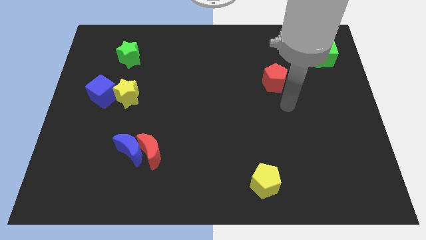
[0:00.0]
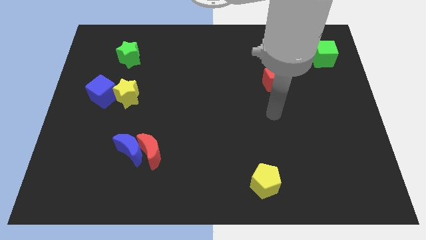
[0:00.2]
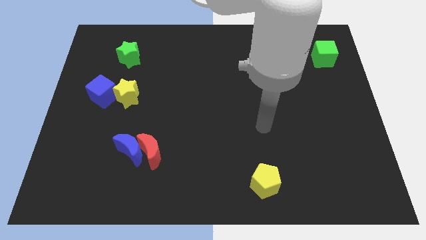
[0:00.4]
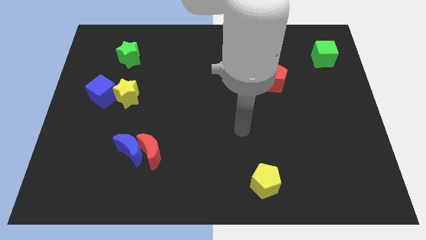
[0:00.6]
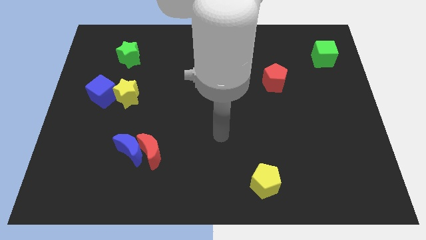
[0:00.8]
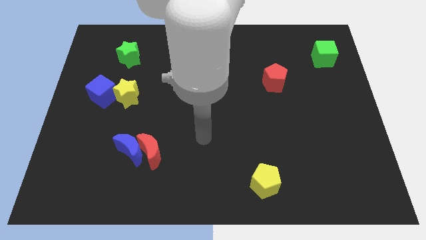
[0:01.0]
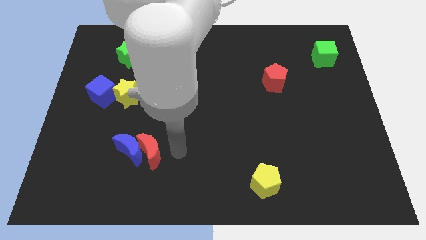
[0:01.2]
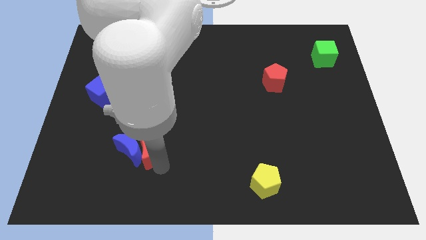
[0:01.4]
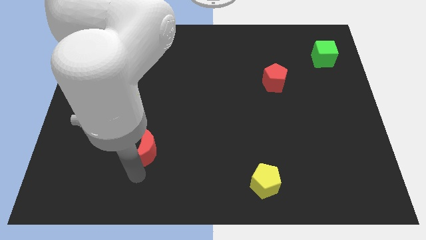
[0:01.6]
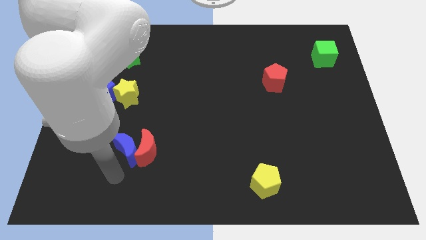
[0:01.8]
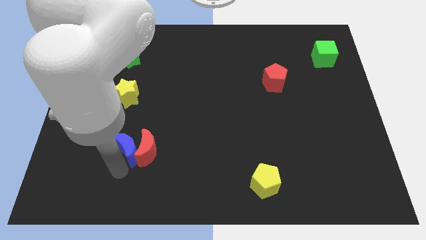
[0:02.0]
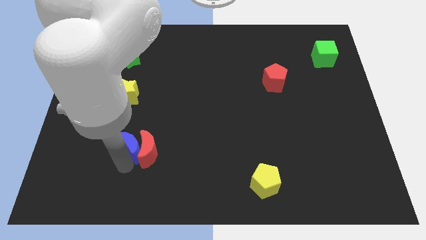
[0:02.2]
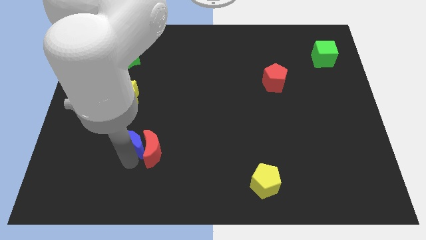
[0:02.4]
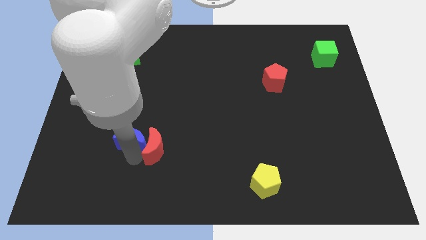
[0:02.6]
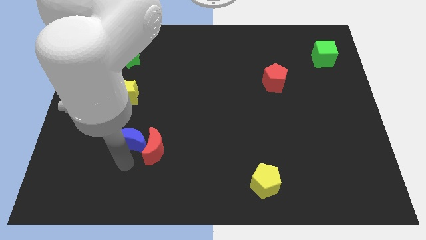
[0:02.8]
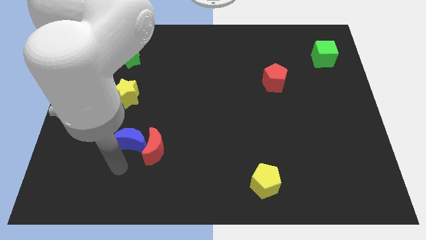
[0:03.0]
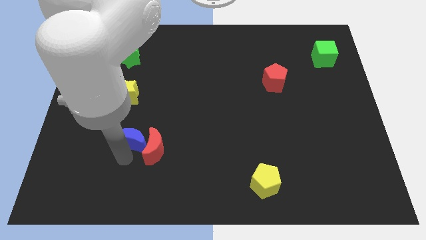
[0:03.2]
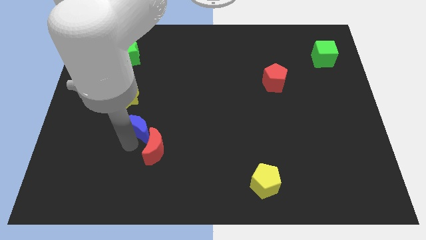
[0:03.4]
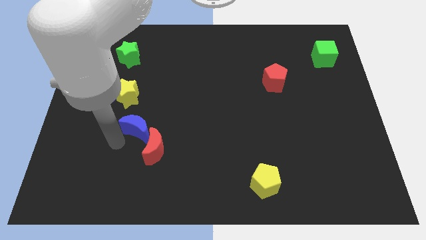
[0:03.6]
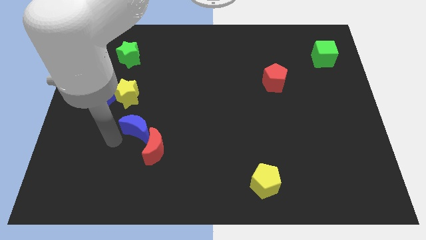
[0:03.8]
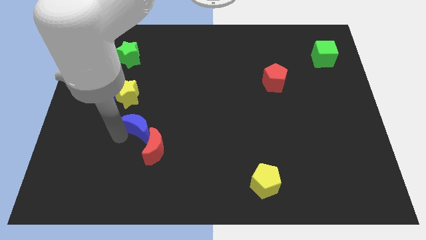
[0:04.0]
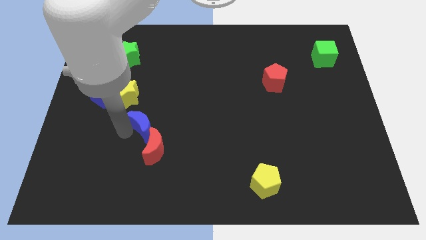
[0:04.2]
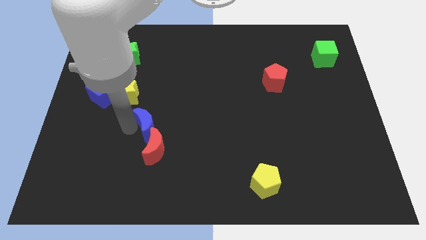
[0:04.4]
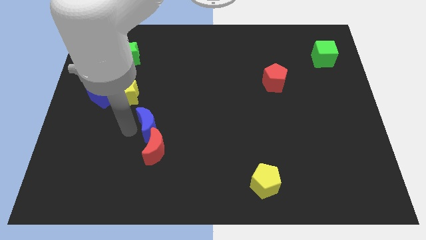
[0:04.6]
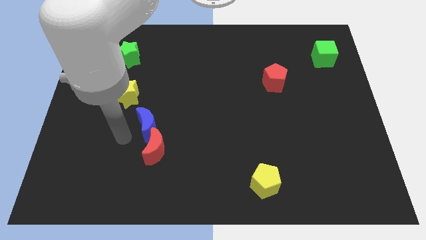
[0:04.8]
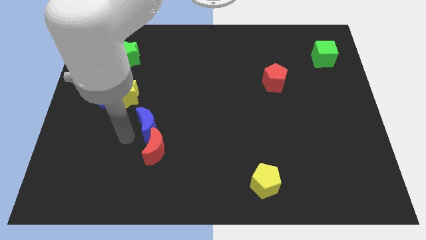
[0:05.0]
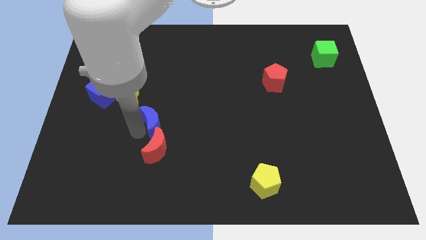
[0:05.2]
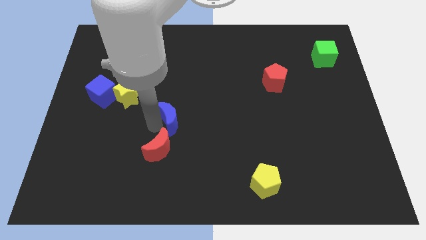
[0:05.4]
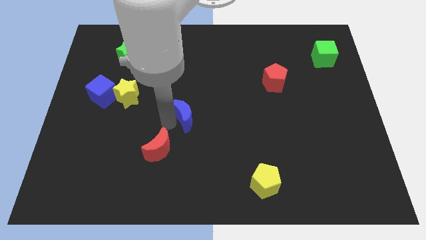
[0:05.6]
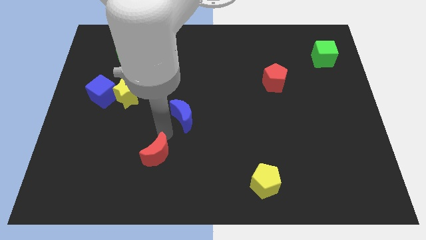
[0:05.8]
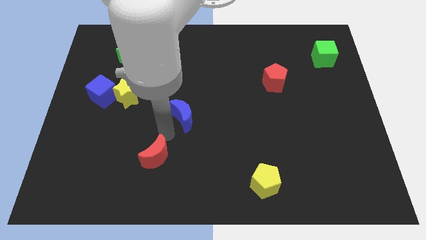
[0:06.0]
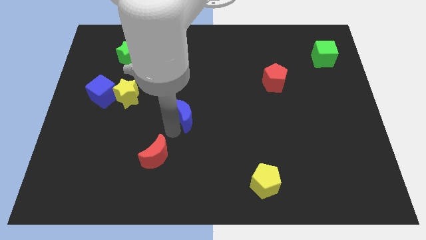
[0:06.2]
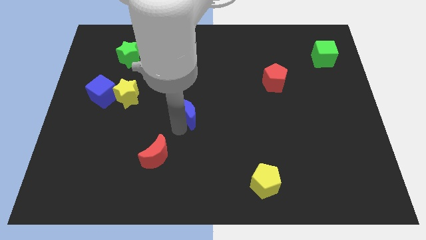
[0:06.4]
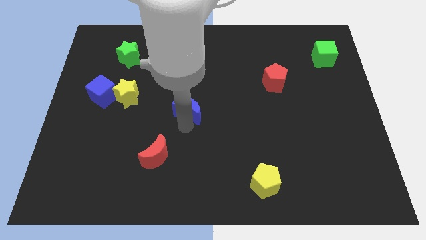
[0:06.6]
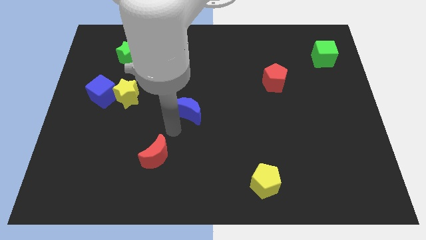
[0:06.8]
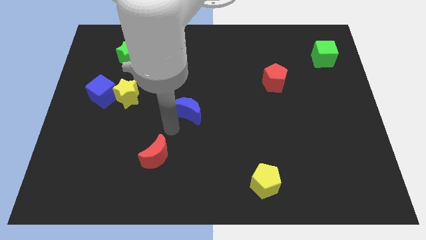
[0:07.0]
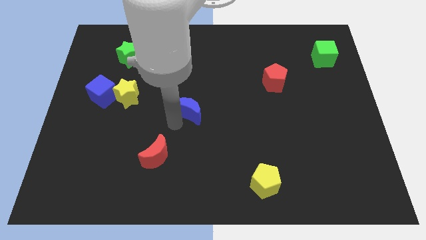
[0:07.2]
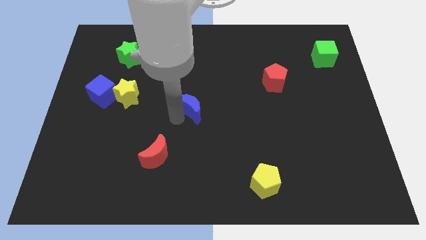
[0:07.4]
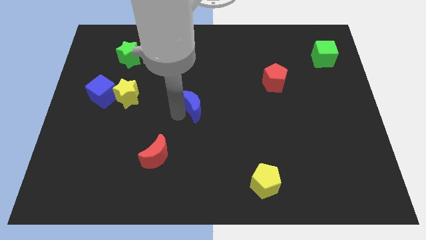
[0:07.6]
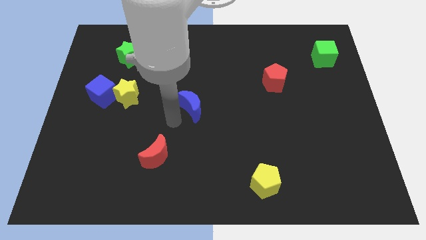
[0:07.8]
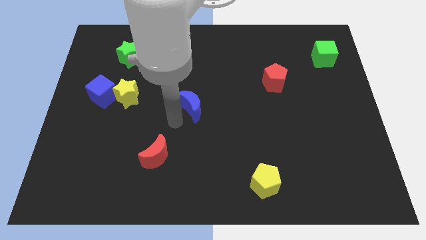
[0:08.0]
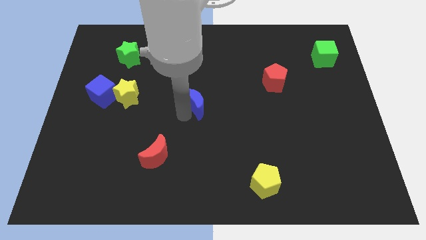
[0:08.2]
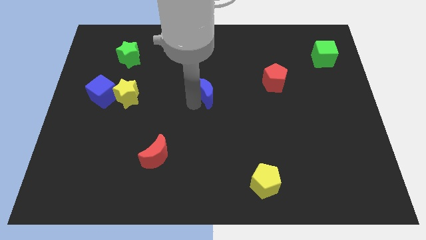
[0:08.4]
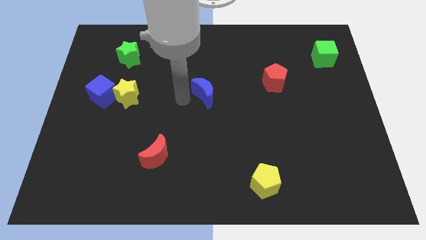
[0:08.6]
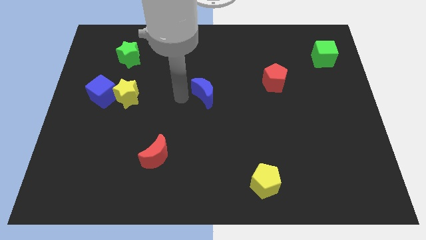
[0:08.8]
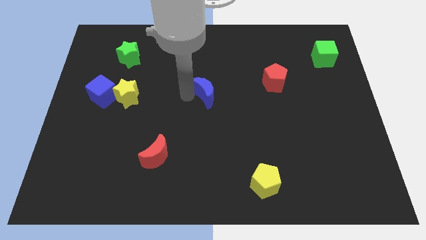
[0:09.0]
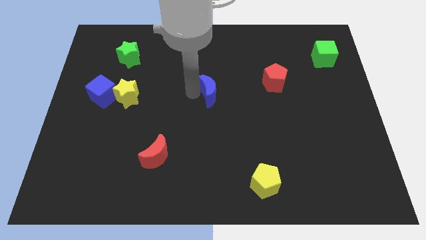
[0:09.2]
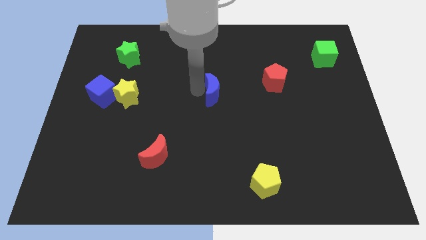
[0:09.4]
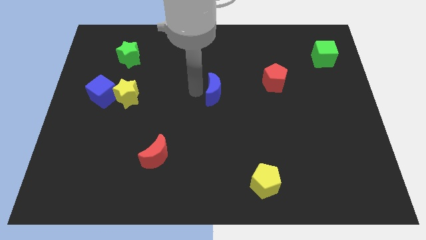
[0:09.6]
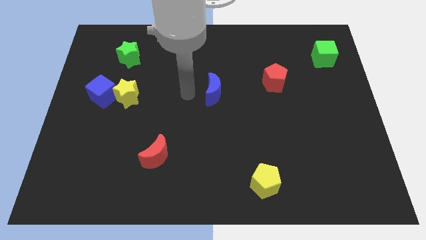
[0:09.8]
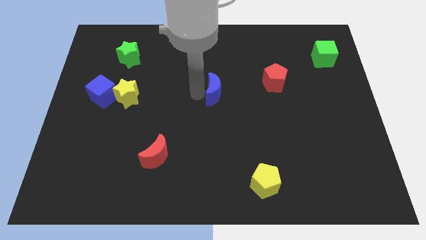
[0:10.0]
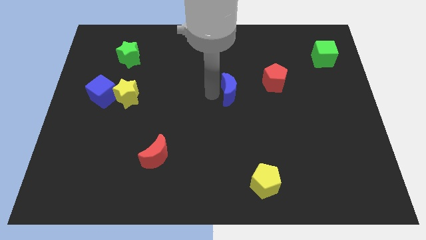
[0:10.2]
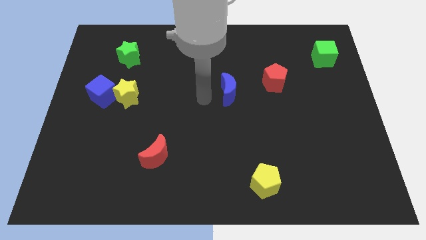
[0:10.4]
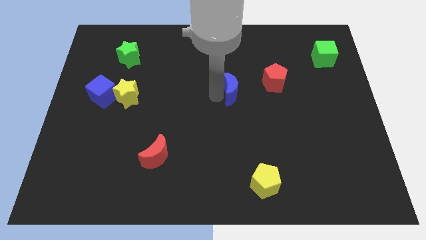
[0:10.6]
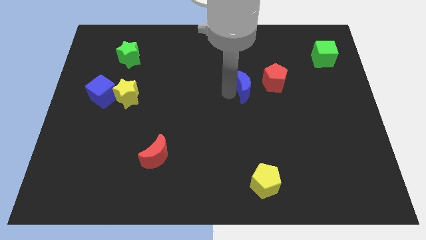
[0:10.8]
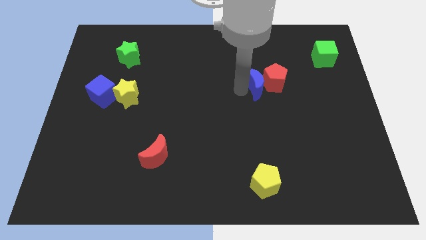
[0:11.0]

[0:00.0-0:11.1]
move the blue moon towards the red pentagon

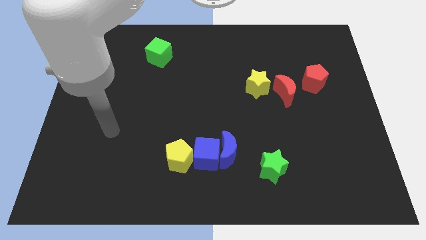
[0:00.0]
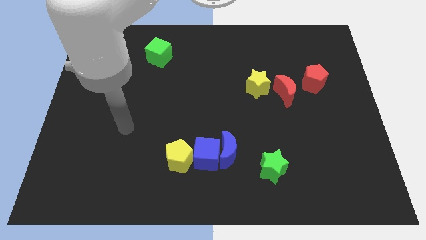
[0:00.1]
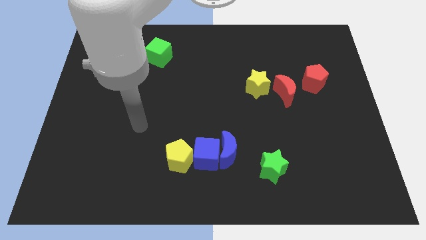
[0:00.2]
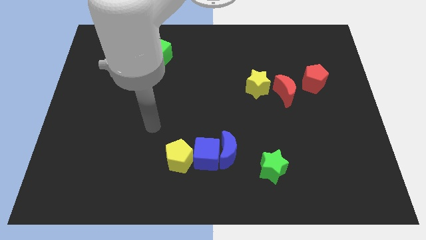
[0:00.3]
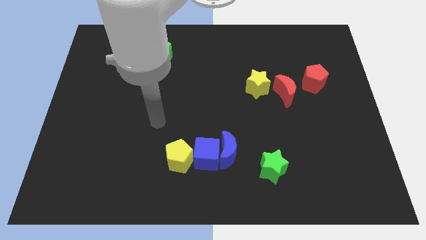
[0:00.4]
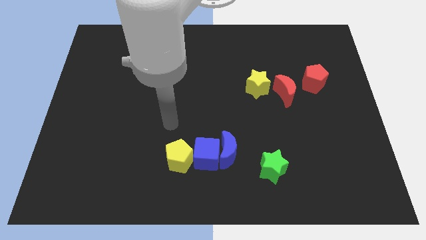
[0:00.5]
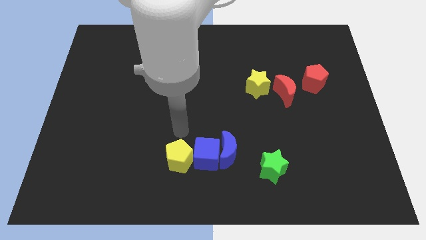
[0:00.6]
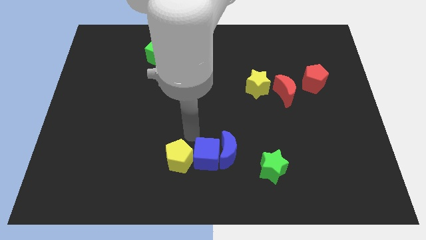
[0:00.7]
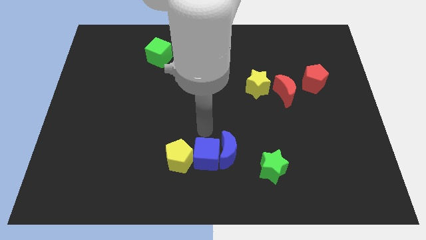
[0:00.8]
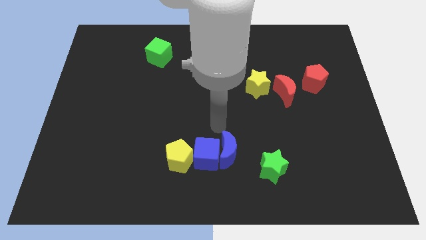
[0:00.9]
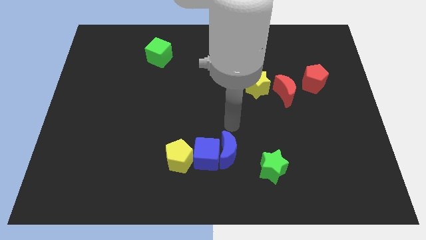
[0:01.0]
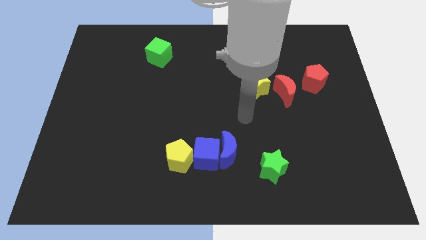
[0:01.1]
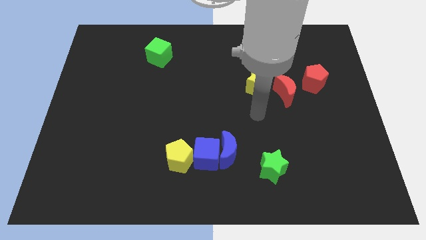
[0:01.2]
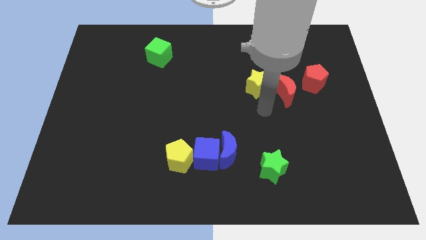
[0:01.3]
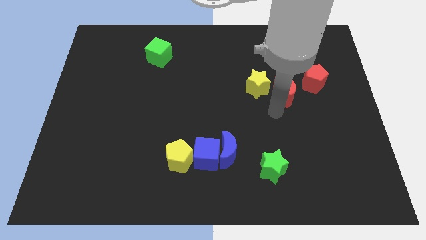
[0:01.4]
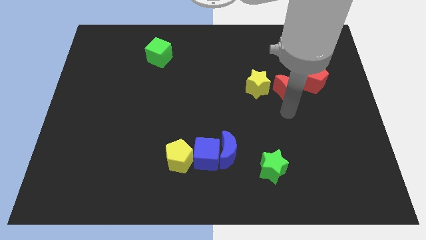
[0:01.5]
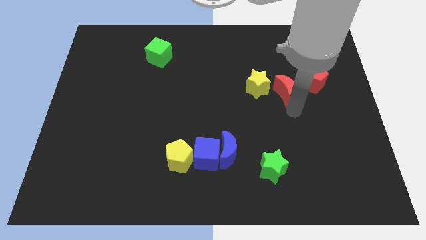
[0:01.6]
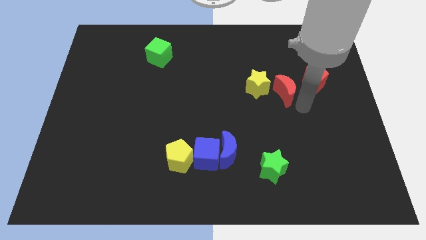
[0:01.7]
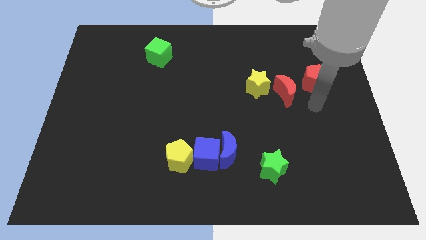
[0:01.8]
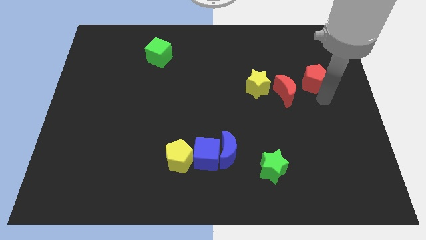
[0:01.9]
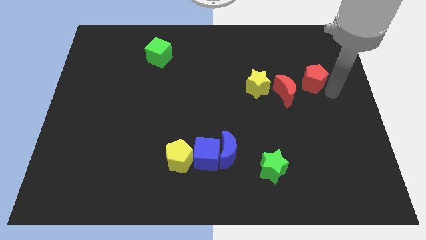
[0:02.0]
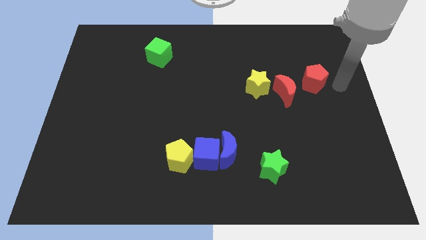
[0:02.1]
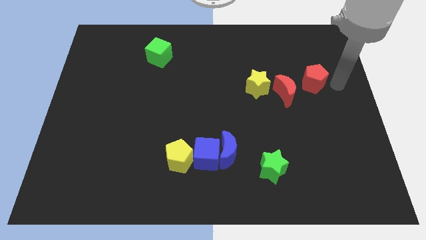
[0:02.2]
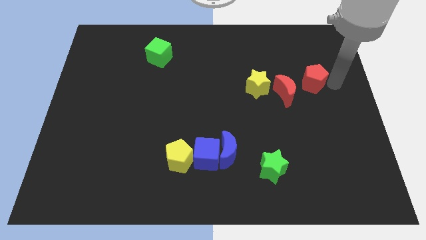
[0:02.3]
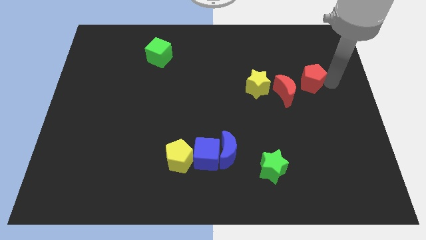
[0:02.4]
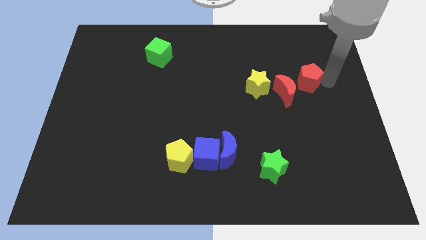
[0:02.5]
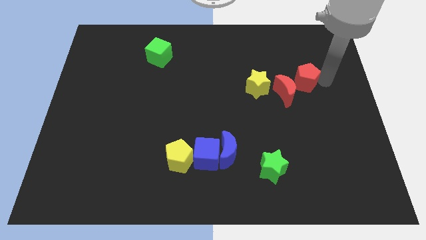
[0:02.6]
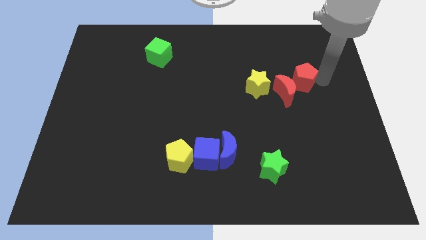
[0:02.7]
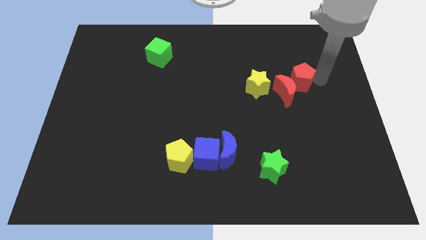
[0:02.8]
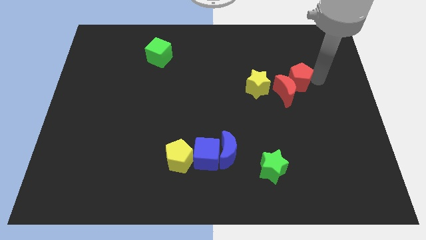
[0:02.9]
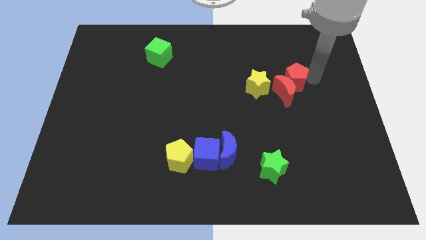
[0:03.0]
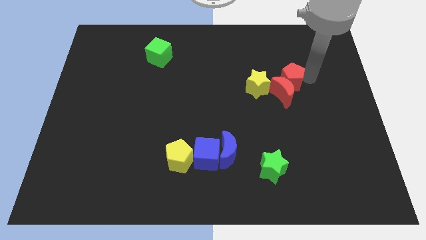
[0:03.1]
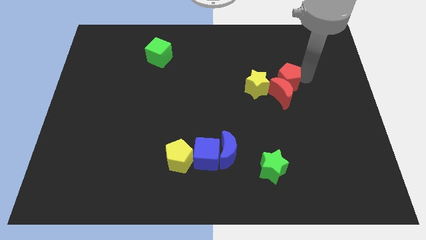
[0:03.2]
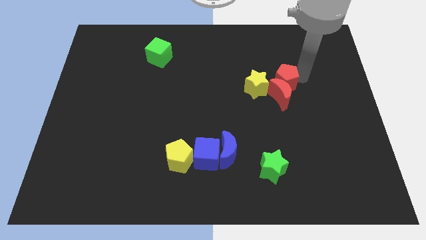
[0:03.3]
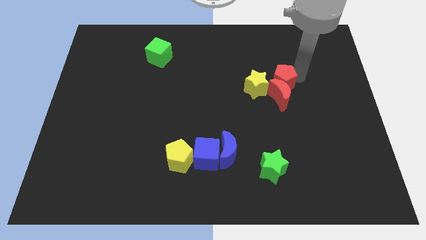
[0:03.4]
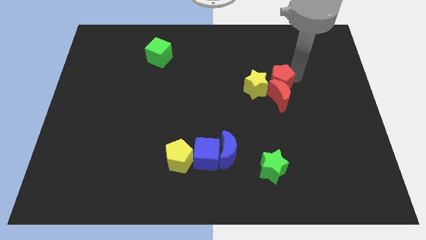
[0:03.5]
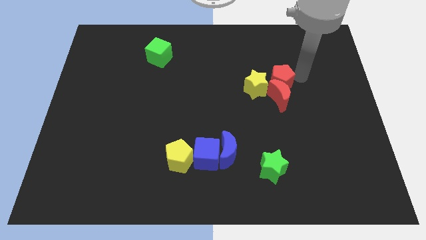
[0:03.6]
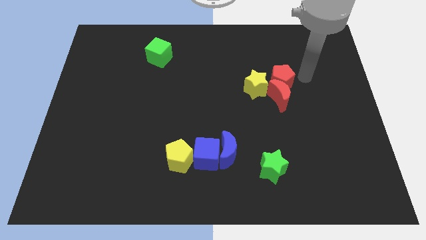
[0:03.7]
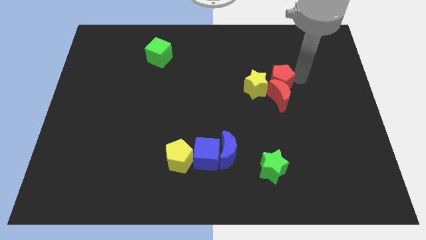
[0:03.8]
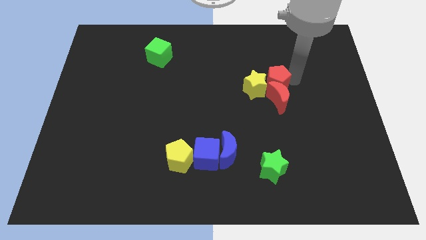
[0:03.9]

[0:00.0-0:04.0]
slide the red pentagon to the yellow star
